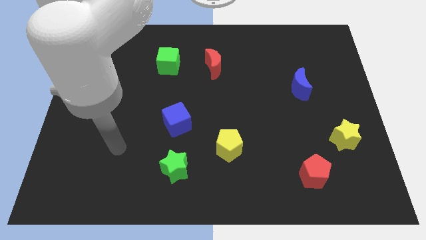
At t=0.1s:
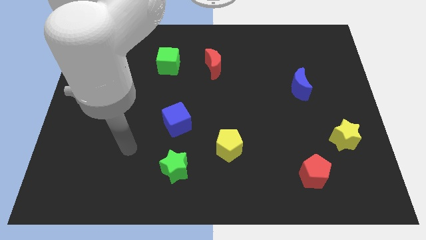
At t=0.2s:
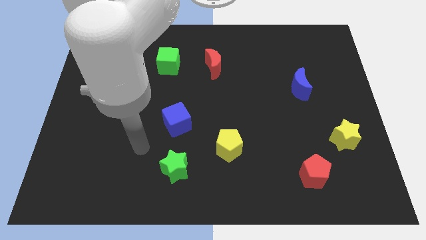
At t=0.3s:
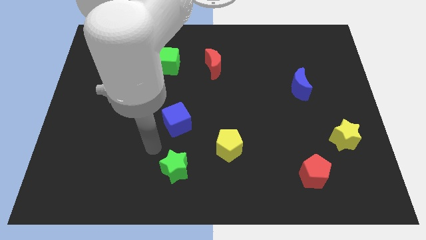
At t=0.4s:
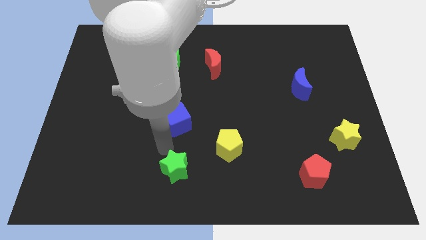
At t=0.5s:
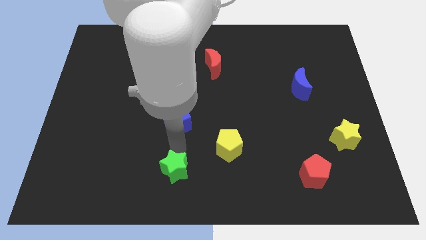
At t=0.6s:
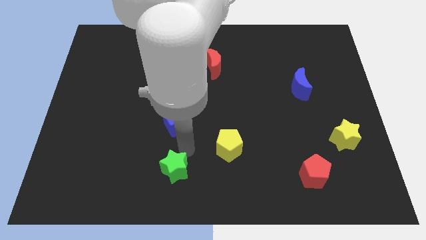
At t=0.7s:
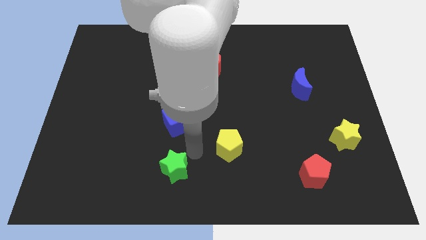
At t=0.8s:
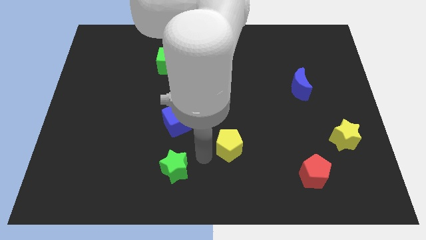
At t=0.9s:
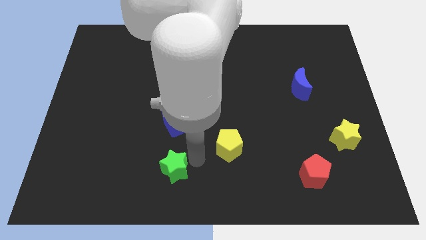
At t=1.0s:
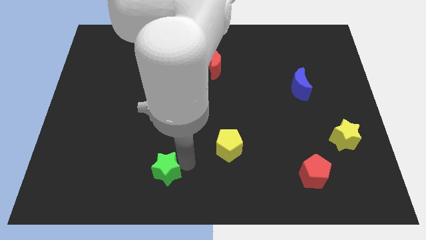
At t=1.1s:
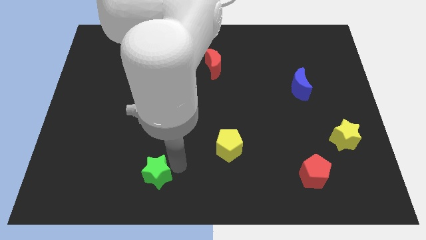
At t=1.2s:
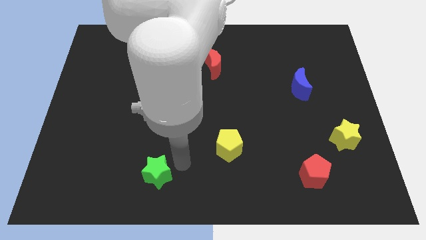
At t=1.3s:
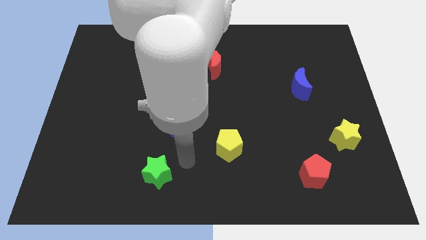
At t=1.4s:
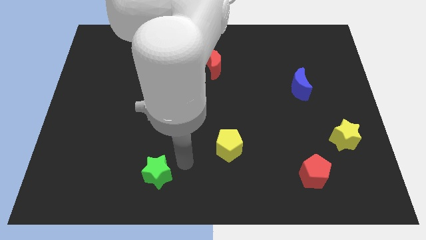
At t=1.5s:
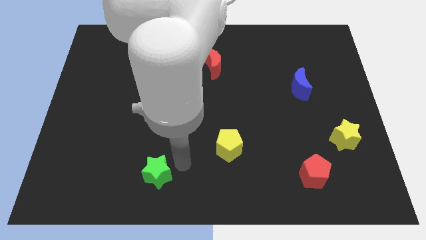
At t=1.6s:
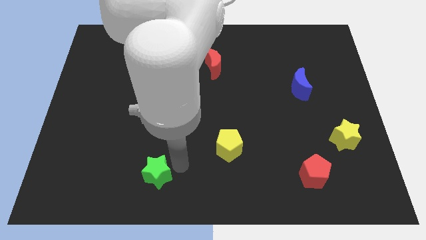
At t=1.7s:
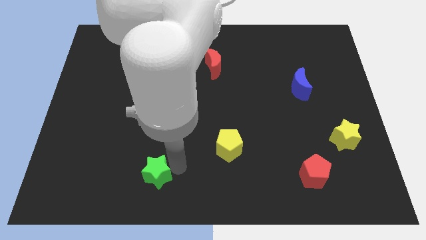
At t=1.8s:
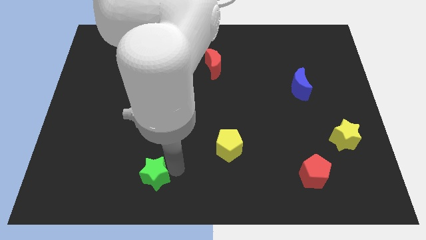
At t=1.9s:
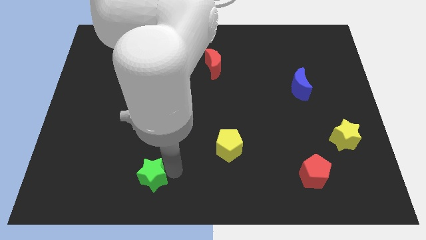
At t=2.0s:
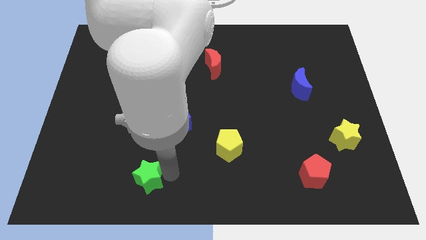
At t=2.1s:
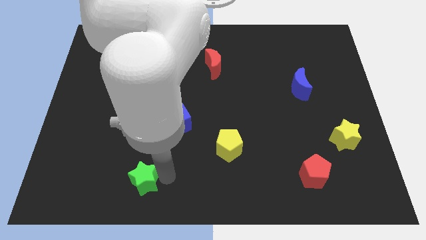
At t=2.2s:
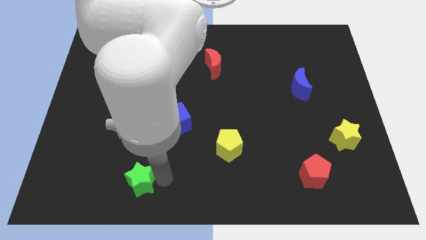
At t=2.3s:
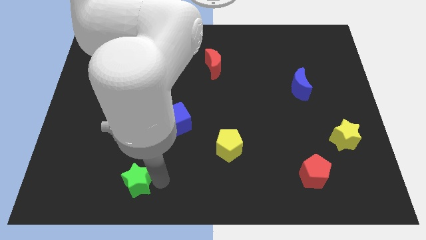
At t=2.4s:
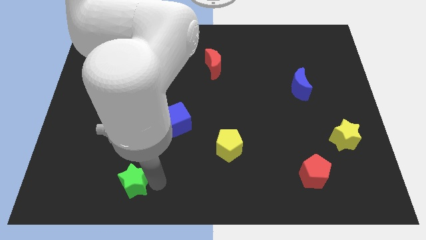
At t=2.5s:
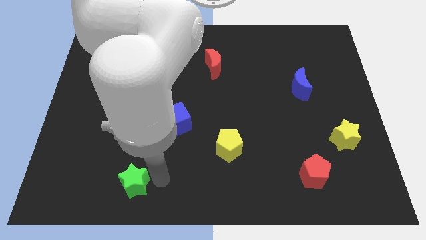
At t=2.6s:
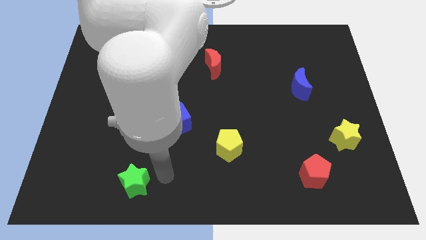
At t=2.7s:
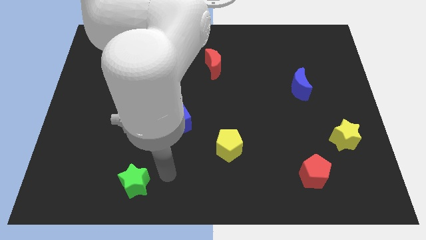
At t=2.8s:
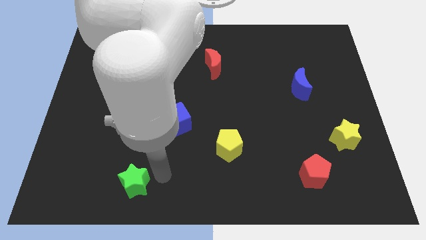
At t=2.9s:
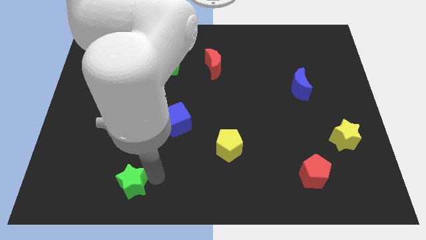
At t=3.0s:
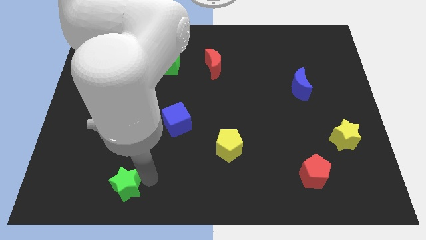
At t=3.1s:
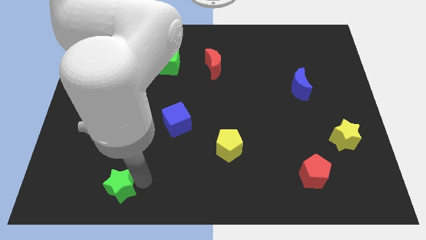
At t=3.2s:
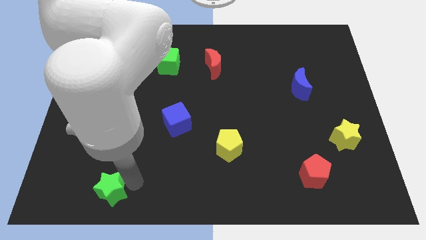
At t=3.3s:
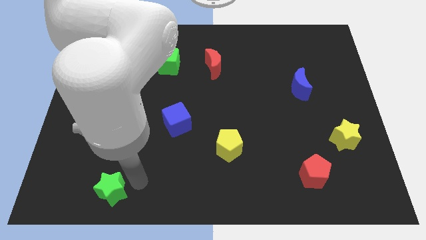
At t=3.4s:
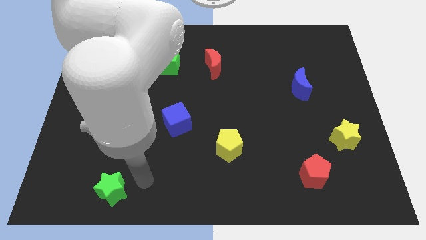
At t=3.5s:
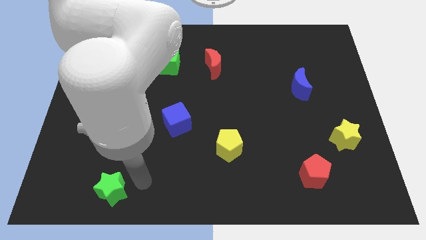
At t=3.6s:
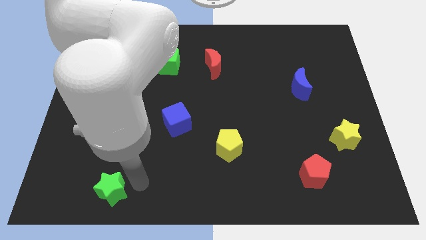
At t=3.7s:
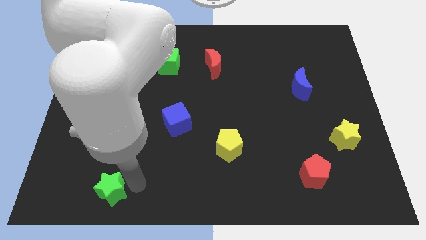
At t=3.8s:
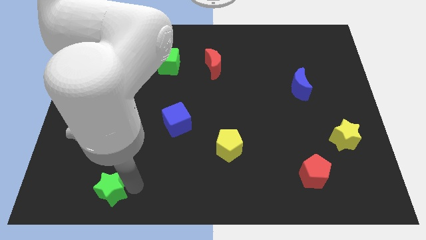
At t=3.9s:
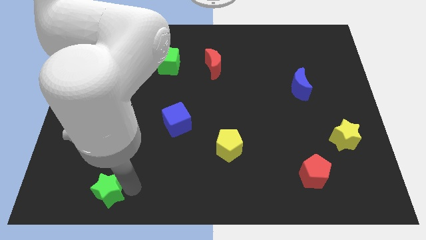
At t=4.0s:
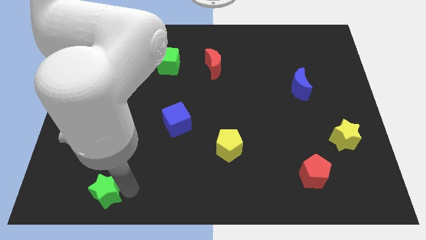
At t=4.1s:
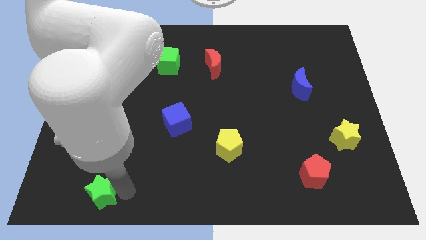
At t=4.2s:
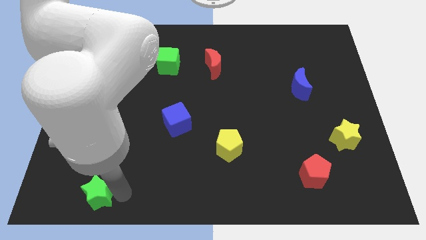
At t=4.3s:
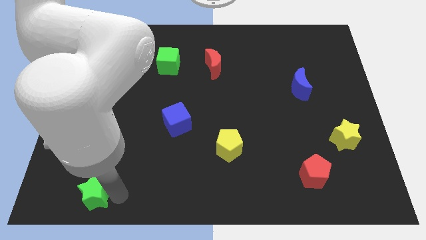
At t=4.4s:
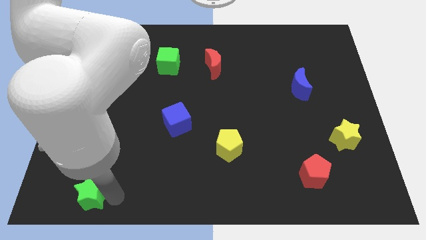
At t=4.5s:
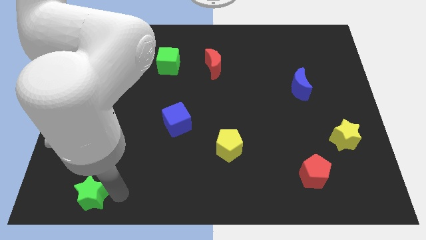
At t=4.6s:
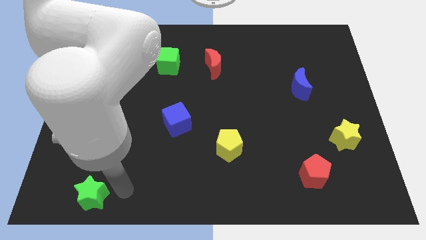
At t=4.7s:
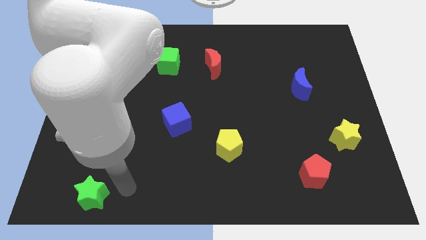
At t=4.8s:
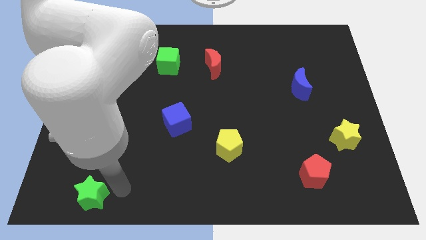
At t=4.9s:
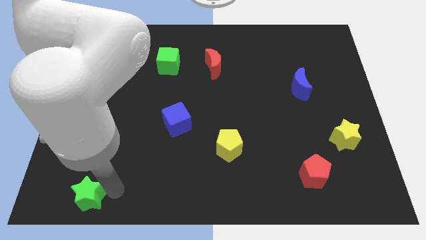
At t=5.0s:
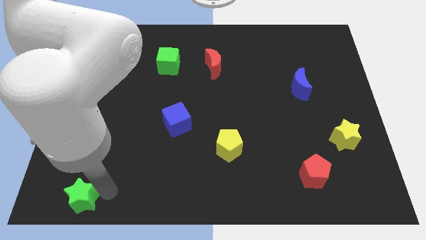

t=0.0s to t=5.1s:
put the green star to the bottom left corner

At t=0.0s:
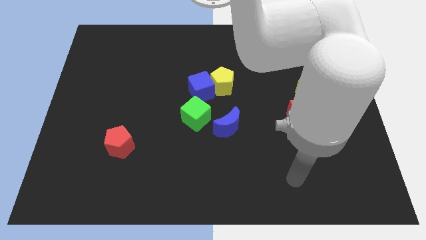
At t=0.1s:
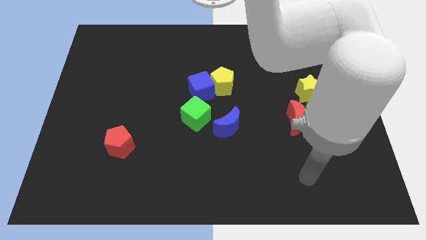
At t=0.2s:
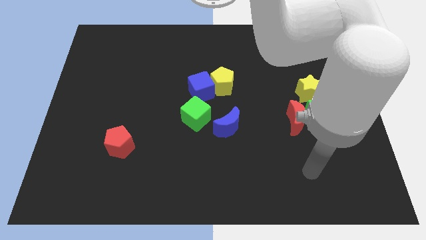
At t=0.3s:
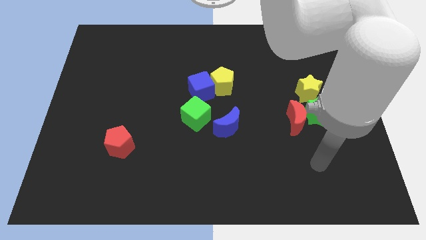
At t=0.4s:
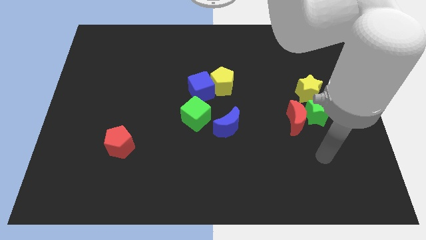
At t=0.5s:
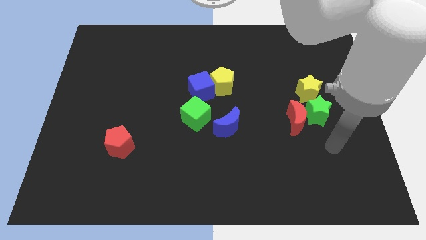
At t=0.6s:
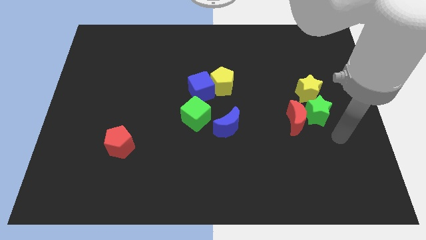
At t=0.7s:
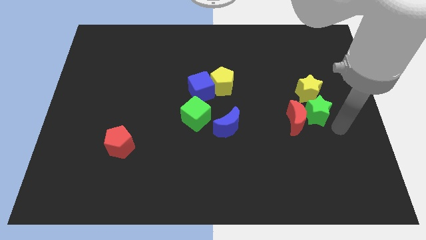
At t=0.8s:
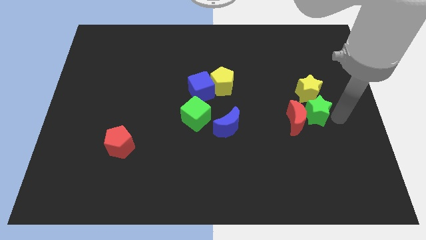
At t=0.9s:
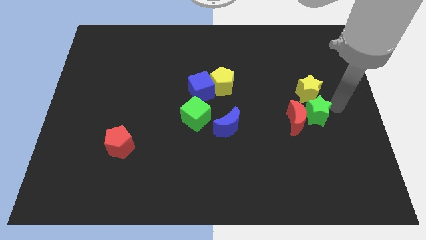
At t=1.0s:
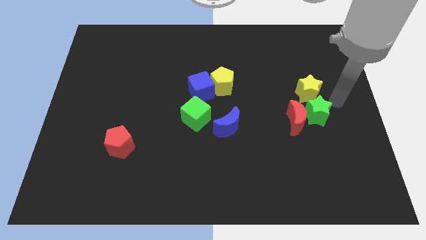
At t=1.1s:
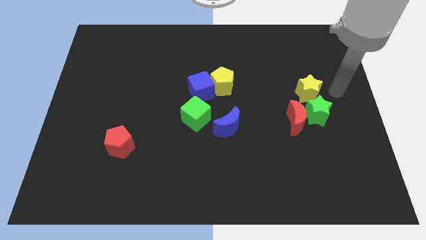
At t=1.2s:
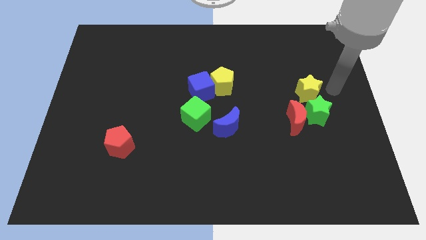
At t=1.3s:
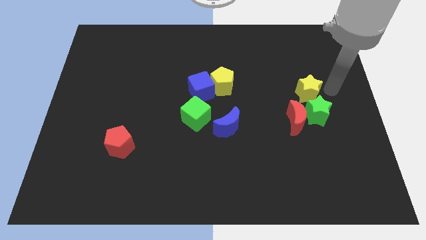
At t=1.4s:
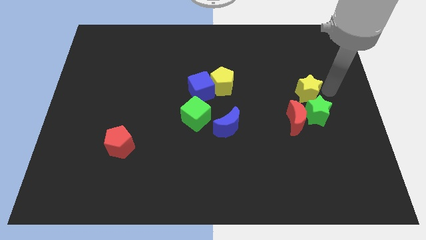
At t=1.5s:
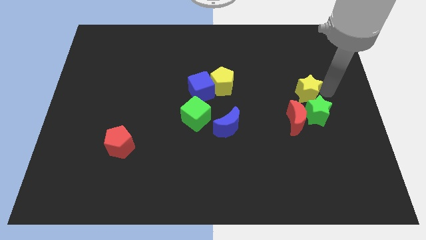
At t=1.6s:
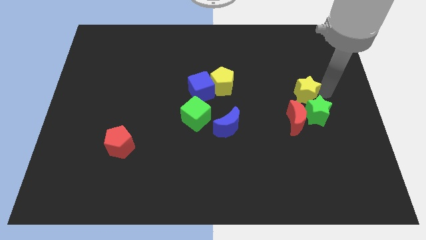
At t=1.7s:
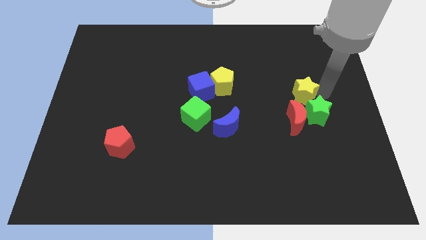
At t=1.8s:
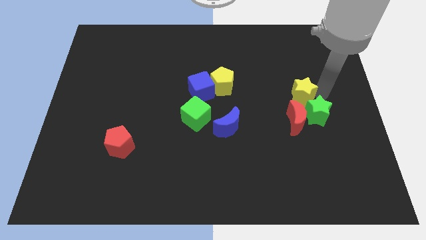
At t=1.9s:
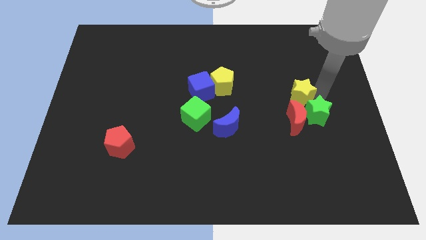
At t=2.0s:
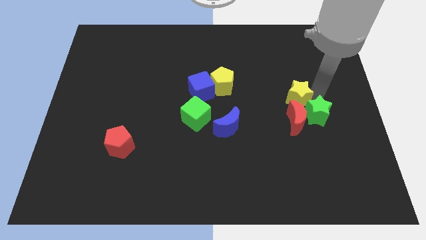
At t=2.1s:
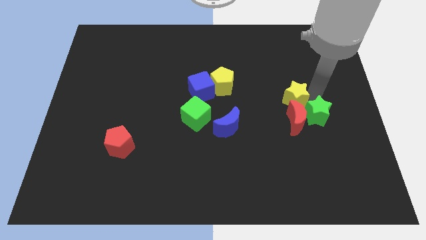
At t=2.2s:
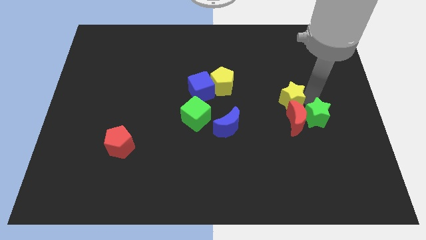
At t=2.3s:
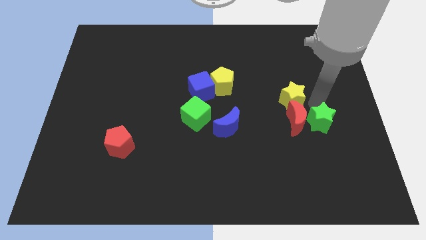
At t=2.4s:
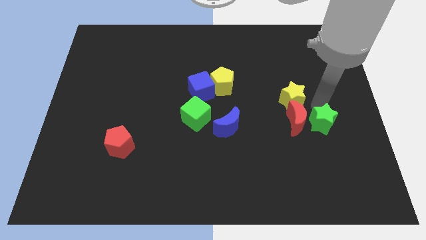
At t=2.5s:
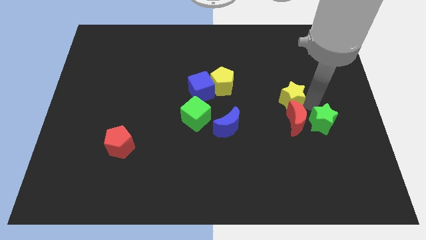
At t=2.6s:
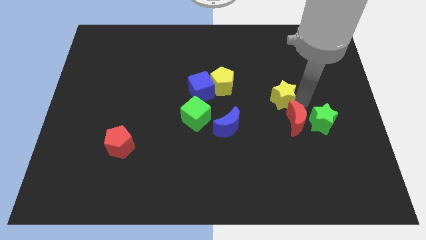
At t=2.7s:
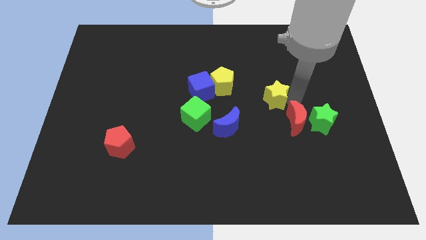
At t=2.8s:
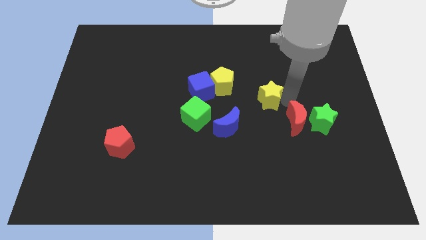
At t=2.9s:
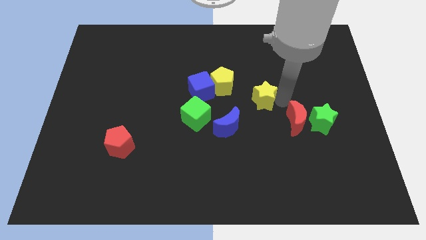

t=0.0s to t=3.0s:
put the yellow star to the middle
